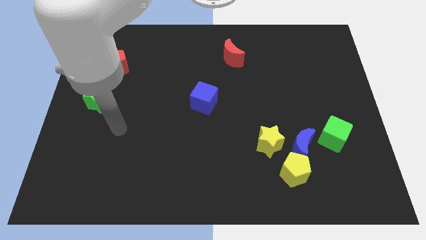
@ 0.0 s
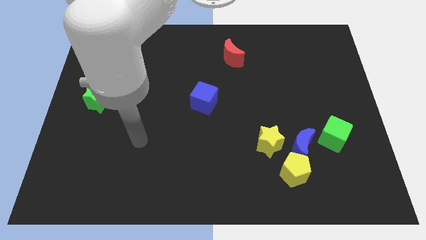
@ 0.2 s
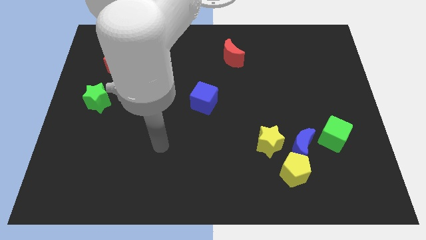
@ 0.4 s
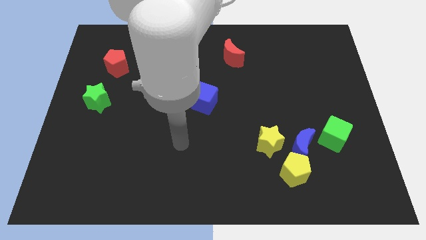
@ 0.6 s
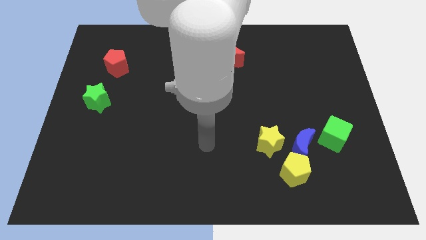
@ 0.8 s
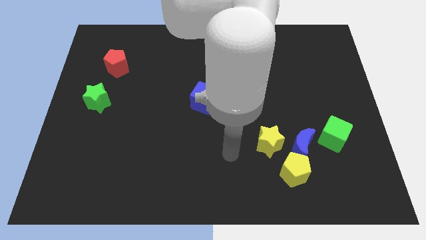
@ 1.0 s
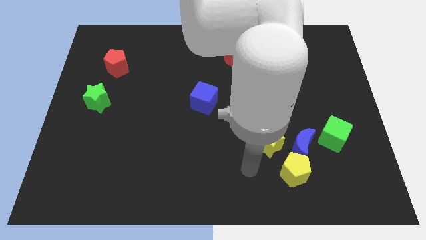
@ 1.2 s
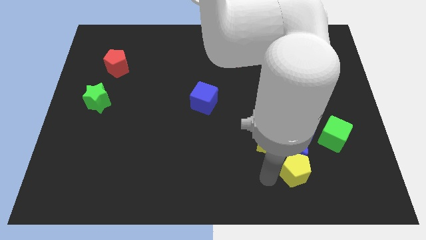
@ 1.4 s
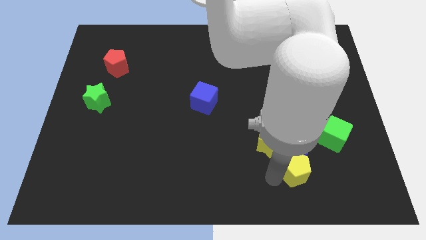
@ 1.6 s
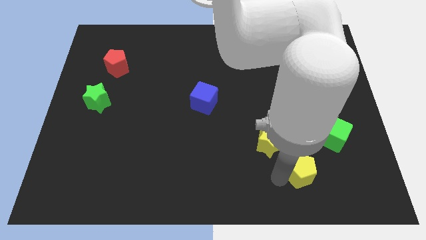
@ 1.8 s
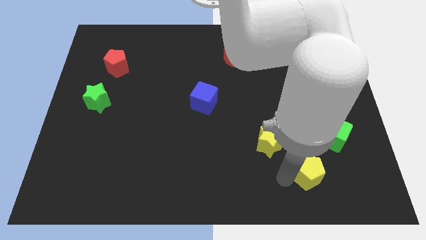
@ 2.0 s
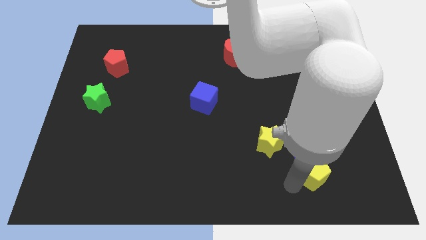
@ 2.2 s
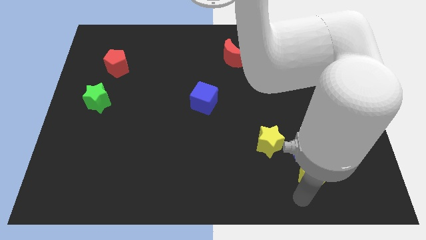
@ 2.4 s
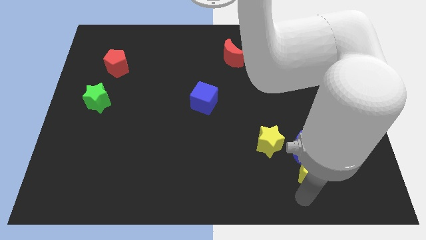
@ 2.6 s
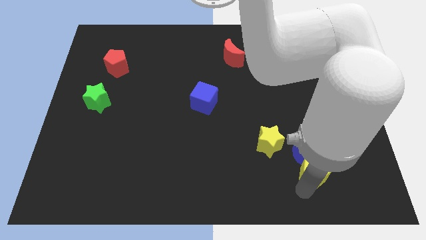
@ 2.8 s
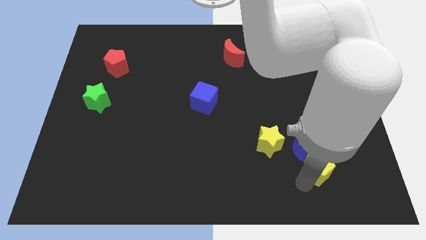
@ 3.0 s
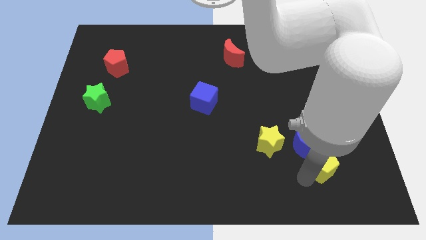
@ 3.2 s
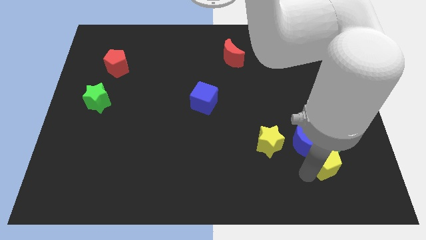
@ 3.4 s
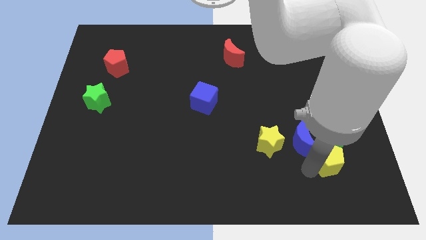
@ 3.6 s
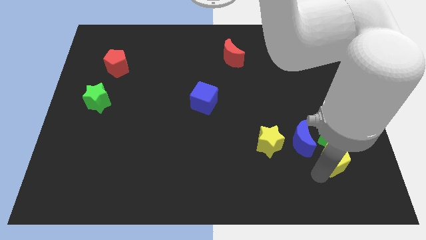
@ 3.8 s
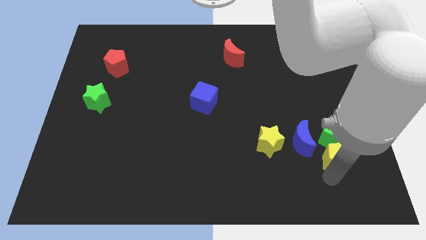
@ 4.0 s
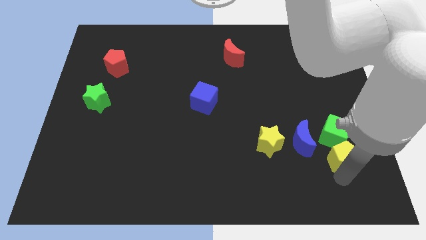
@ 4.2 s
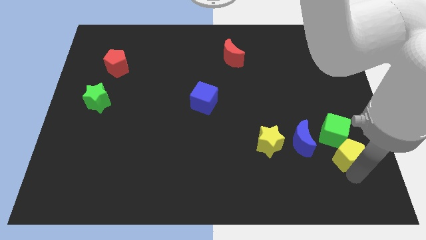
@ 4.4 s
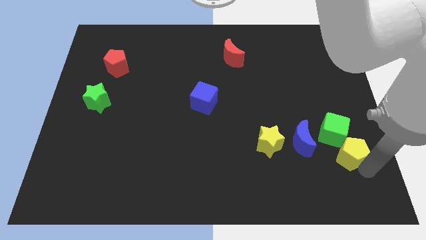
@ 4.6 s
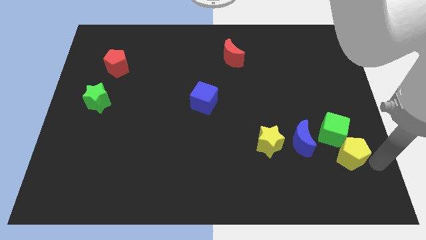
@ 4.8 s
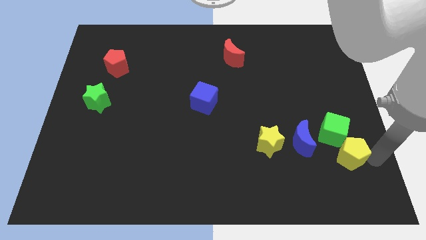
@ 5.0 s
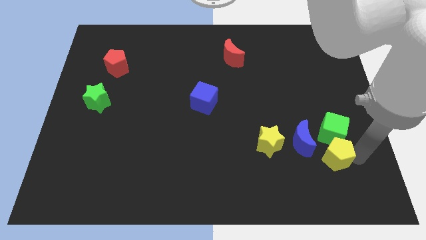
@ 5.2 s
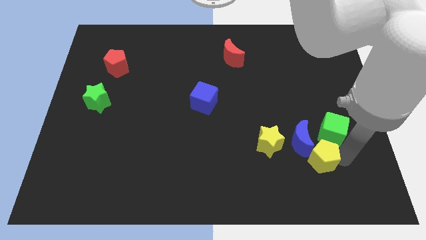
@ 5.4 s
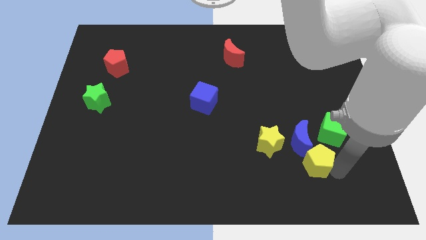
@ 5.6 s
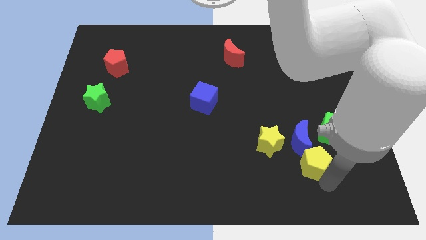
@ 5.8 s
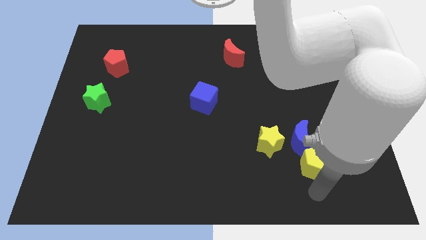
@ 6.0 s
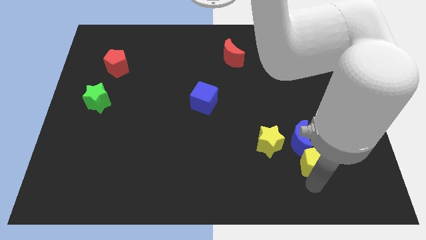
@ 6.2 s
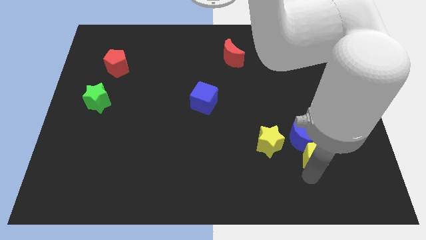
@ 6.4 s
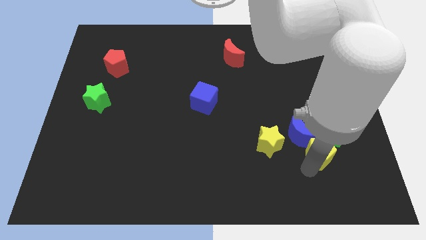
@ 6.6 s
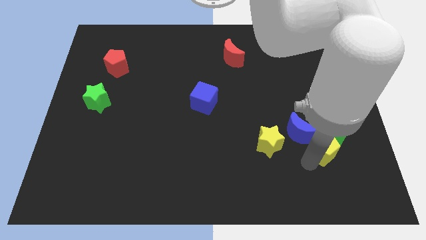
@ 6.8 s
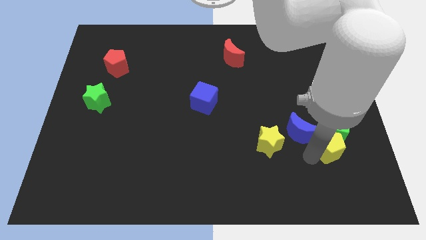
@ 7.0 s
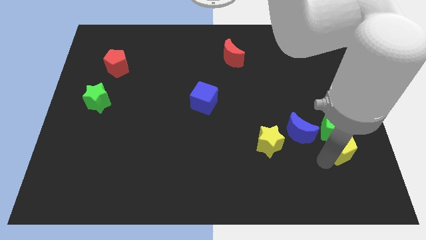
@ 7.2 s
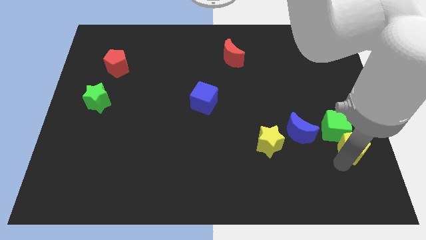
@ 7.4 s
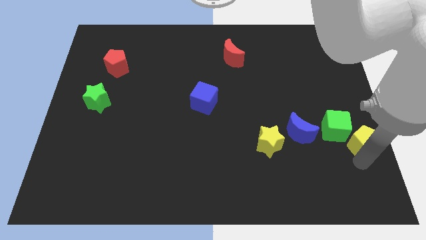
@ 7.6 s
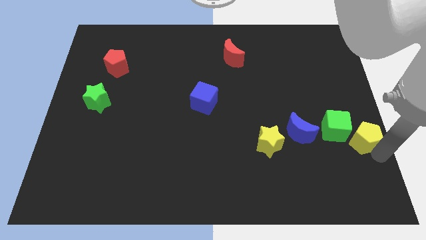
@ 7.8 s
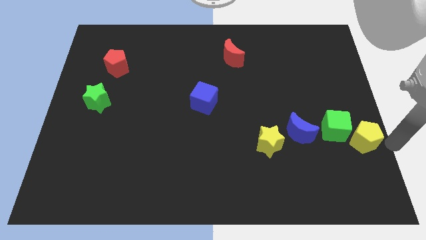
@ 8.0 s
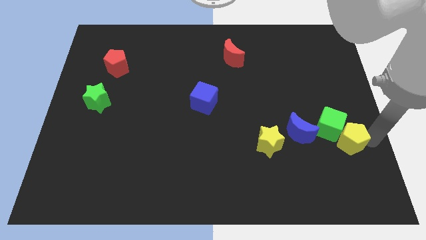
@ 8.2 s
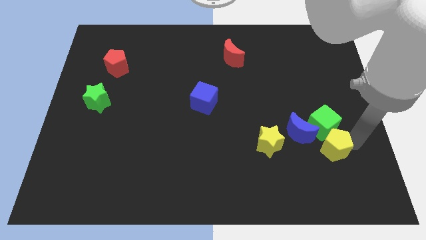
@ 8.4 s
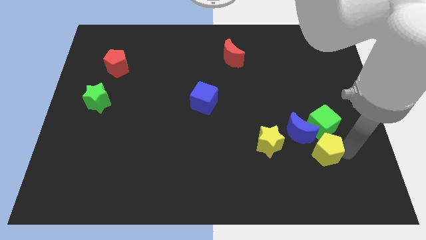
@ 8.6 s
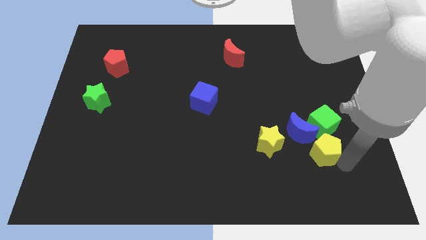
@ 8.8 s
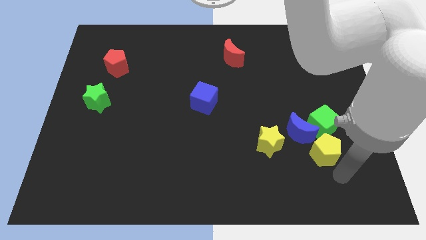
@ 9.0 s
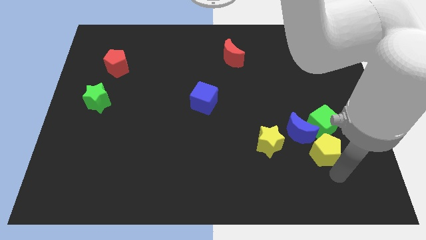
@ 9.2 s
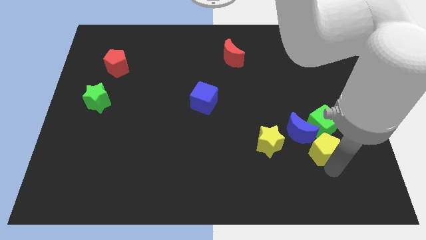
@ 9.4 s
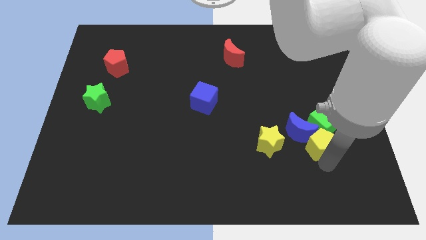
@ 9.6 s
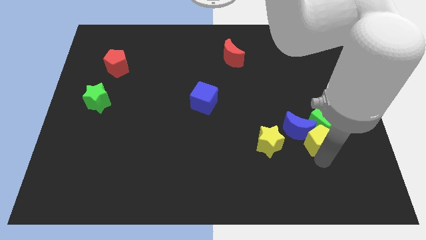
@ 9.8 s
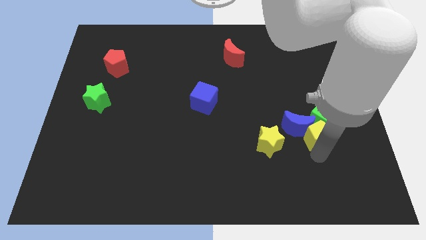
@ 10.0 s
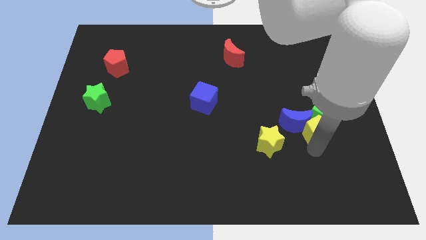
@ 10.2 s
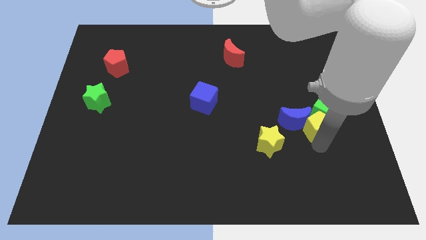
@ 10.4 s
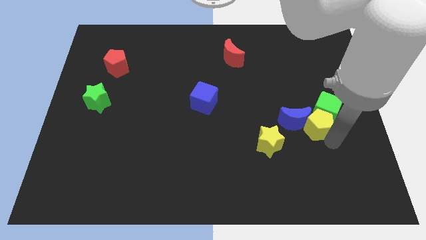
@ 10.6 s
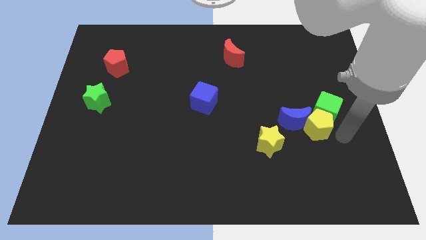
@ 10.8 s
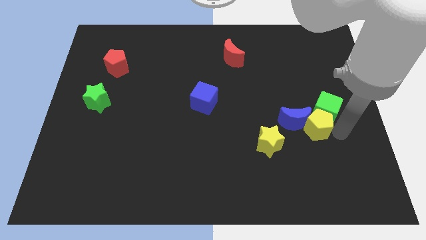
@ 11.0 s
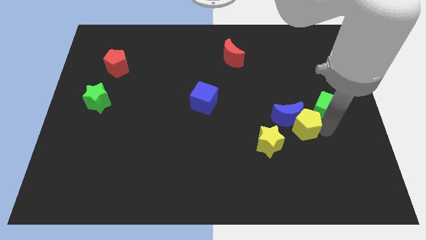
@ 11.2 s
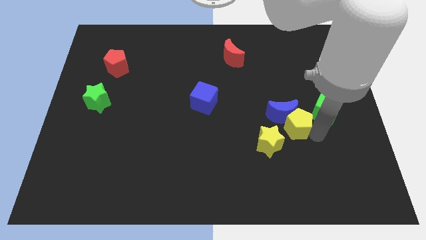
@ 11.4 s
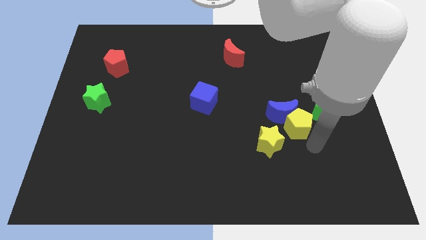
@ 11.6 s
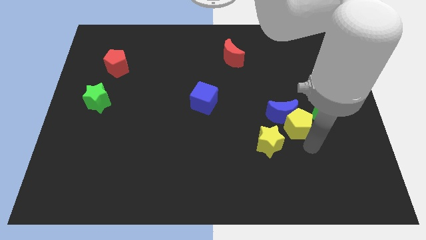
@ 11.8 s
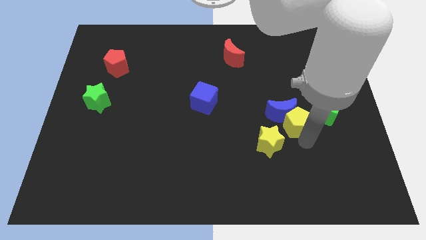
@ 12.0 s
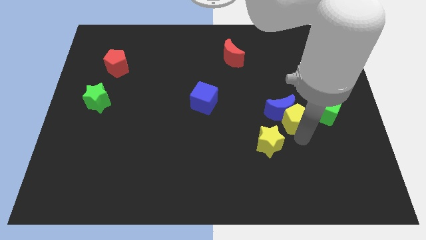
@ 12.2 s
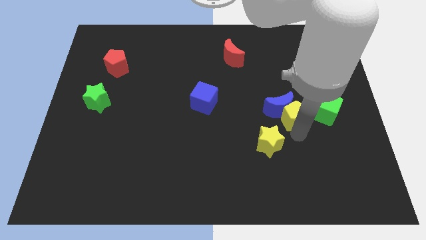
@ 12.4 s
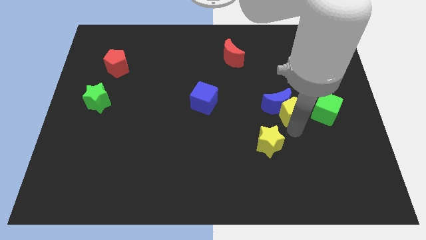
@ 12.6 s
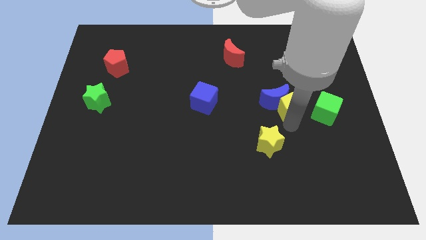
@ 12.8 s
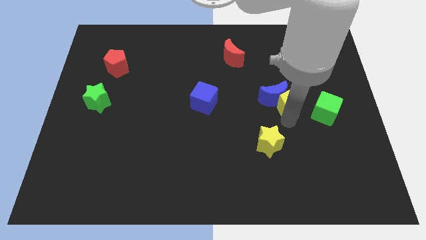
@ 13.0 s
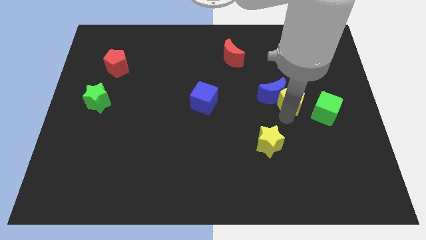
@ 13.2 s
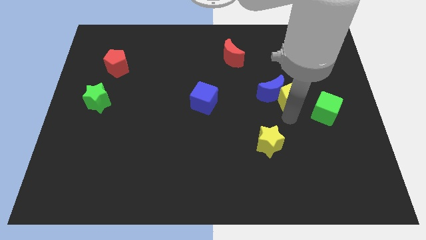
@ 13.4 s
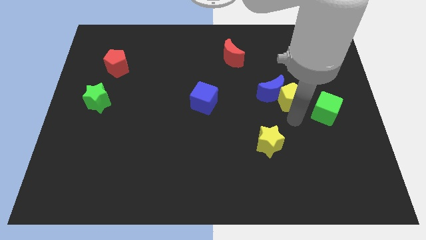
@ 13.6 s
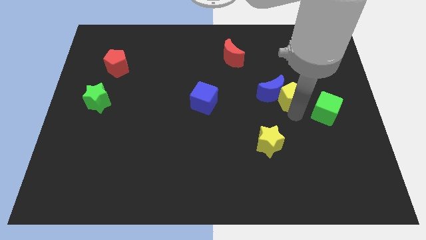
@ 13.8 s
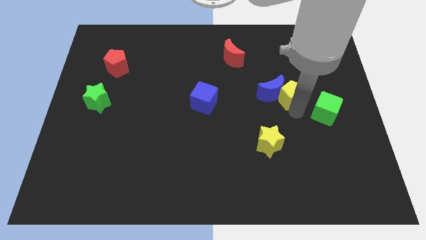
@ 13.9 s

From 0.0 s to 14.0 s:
push the yellow pentagon upwards

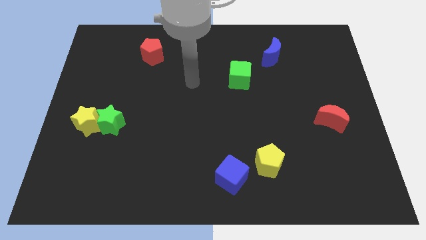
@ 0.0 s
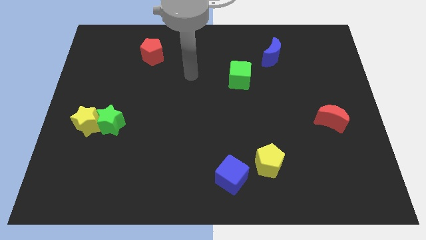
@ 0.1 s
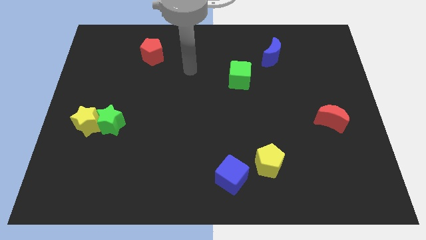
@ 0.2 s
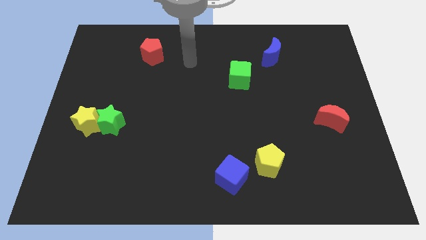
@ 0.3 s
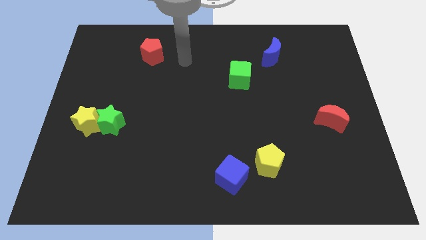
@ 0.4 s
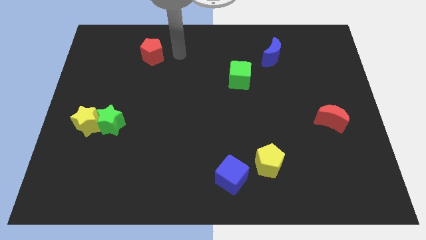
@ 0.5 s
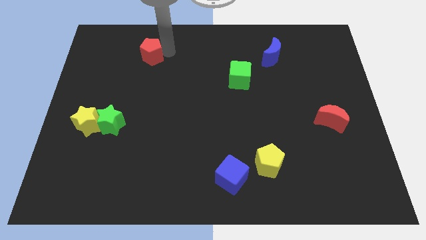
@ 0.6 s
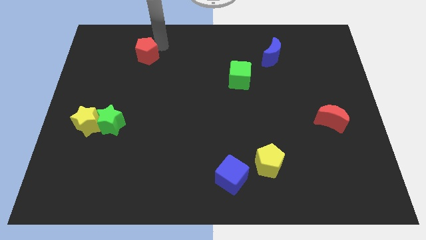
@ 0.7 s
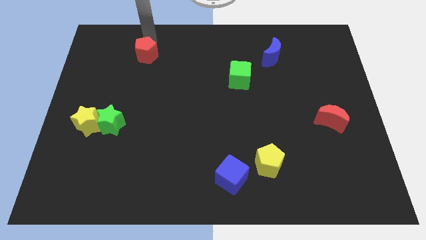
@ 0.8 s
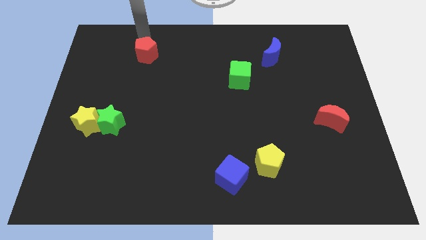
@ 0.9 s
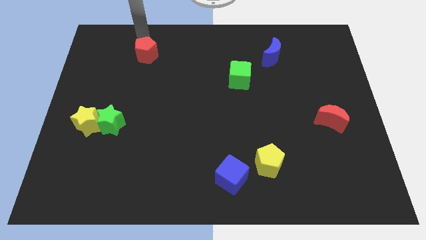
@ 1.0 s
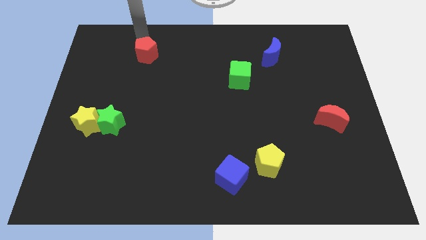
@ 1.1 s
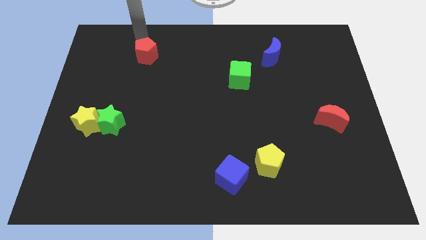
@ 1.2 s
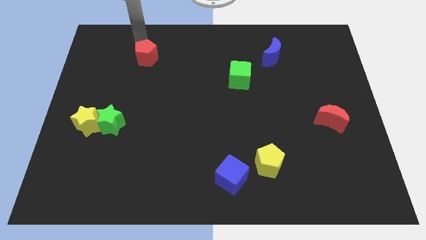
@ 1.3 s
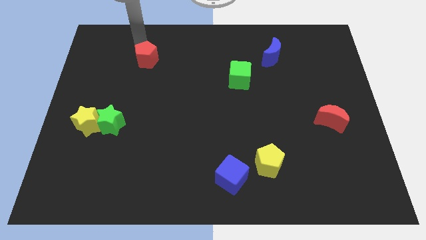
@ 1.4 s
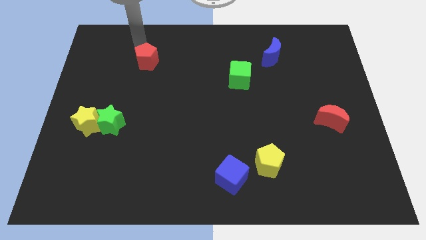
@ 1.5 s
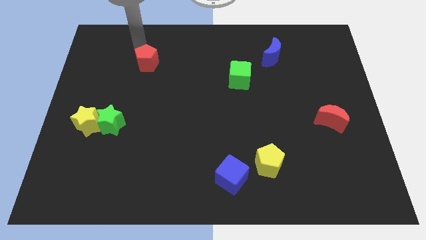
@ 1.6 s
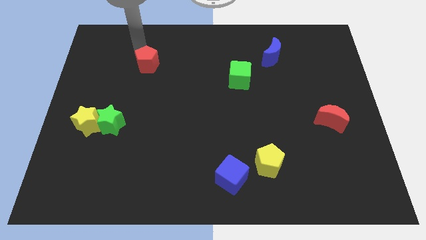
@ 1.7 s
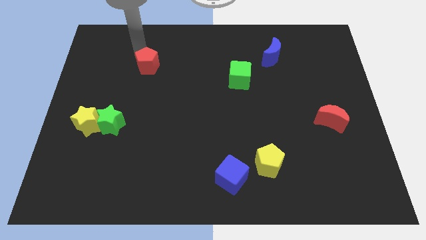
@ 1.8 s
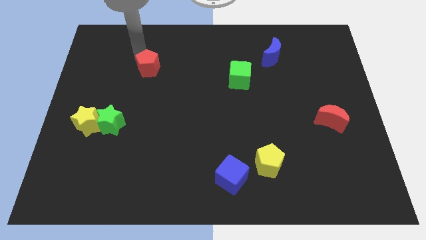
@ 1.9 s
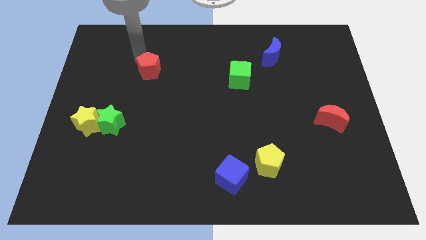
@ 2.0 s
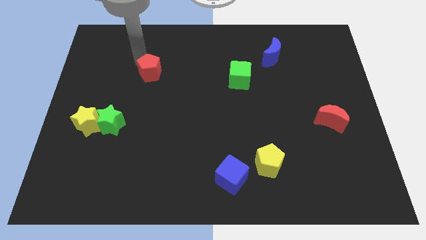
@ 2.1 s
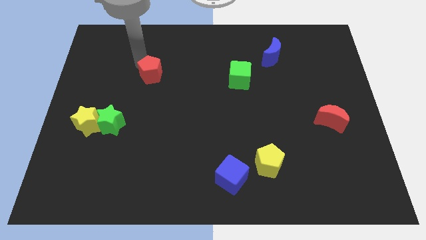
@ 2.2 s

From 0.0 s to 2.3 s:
slightly push the red pentagon downwards
